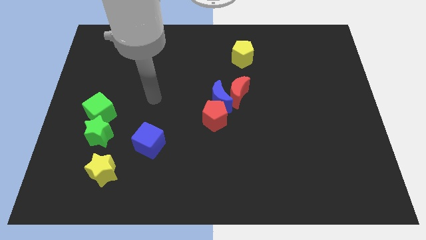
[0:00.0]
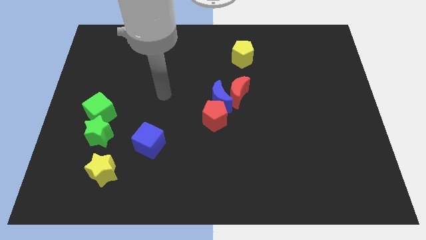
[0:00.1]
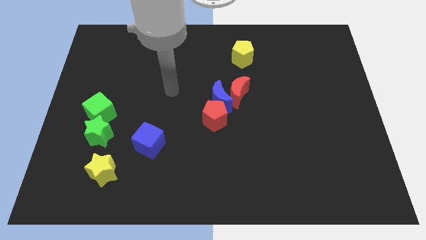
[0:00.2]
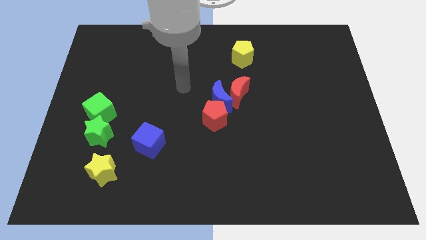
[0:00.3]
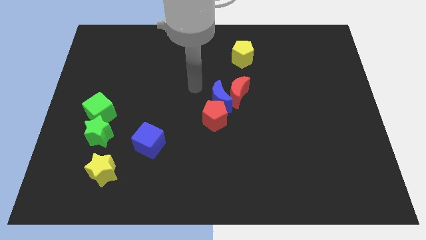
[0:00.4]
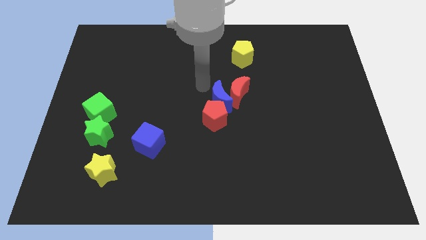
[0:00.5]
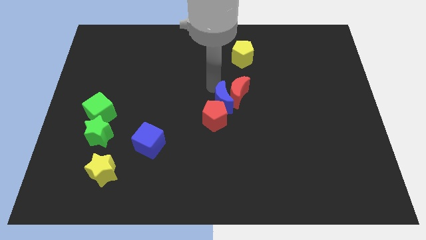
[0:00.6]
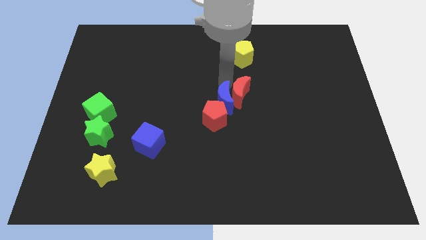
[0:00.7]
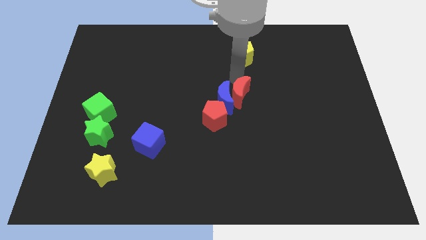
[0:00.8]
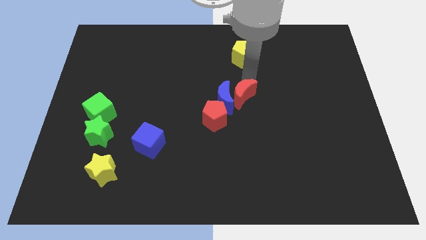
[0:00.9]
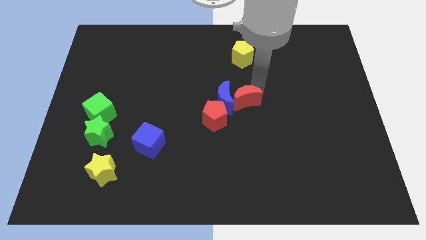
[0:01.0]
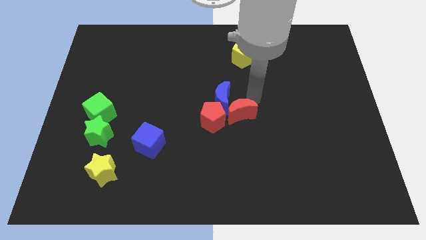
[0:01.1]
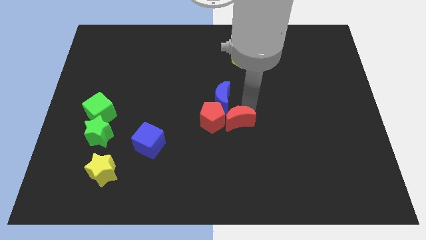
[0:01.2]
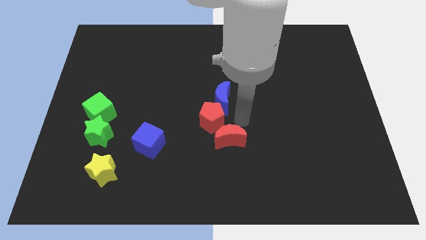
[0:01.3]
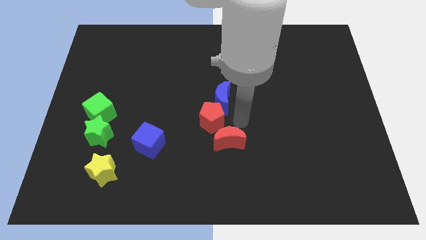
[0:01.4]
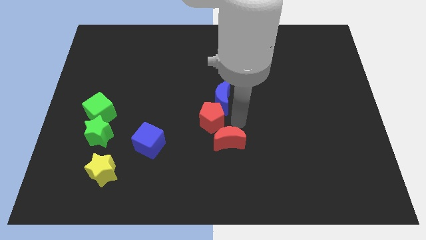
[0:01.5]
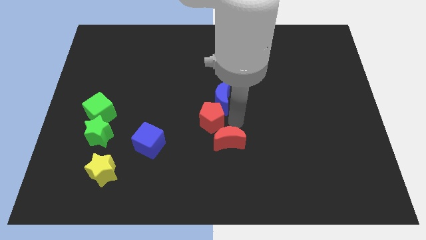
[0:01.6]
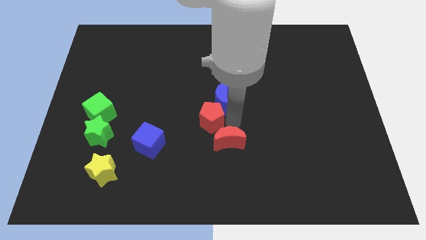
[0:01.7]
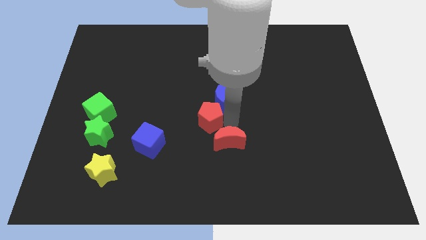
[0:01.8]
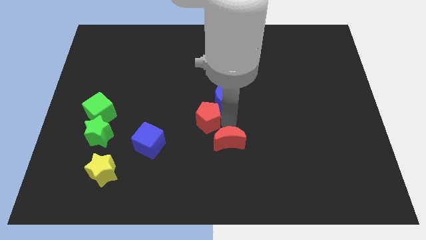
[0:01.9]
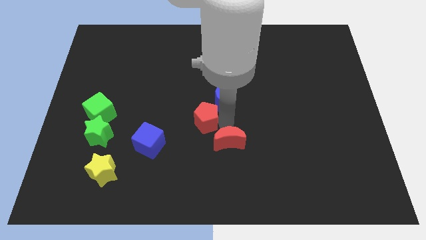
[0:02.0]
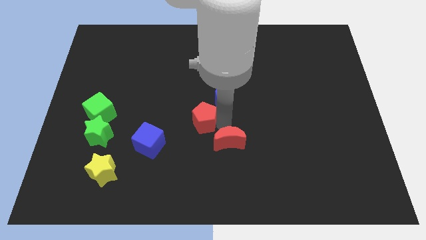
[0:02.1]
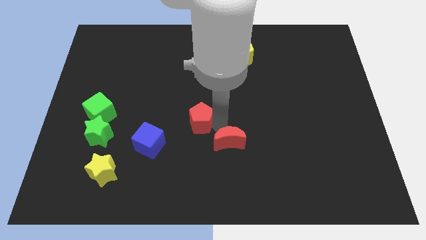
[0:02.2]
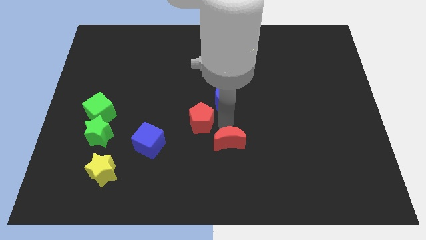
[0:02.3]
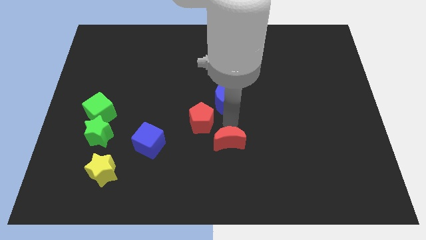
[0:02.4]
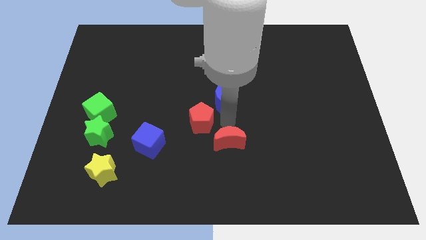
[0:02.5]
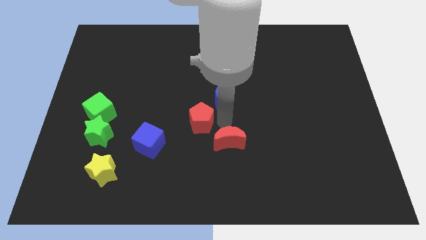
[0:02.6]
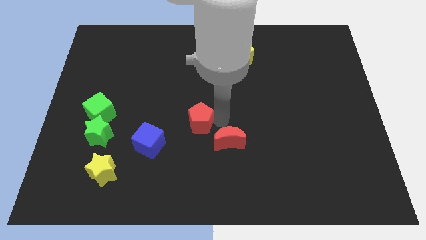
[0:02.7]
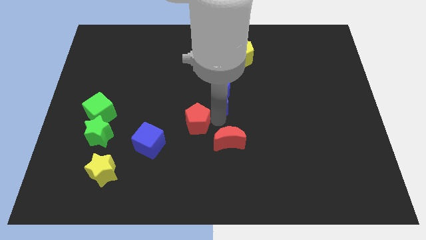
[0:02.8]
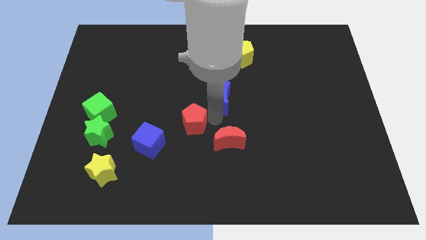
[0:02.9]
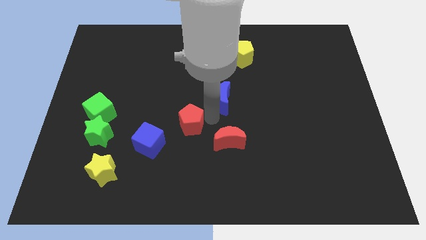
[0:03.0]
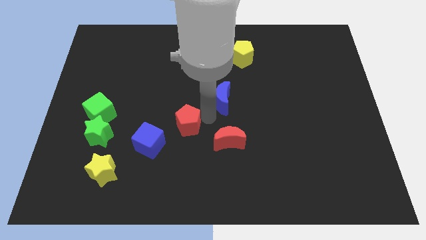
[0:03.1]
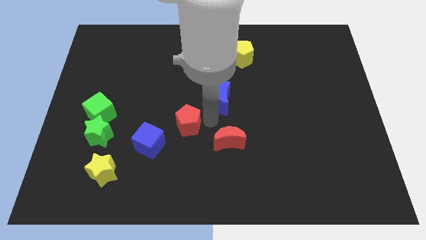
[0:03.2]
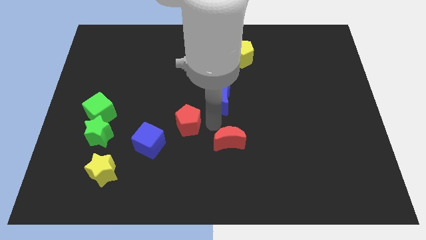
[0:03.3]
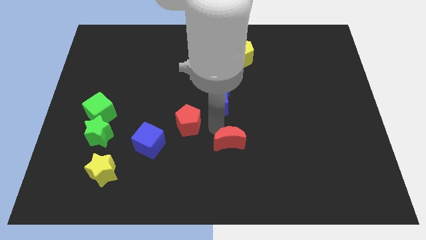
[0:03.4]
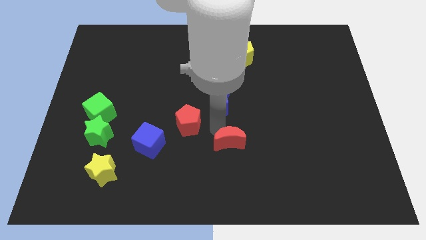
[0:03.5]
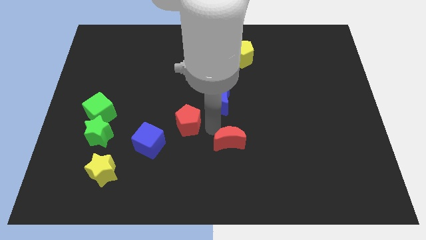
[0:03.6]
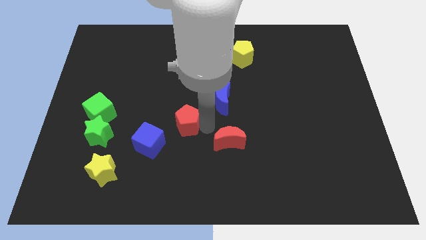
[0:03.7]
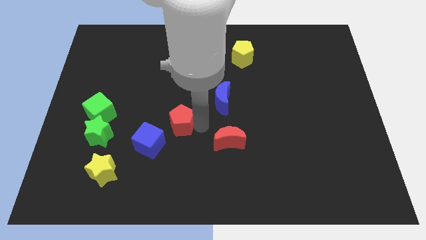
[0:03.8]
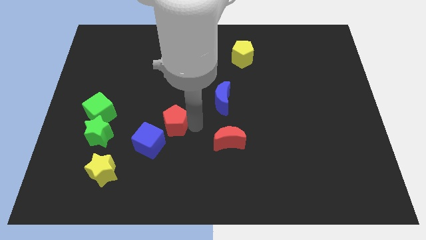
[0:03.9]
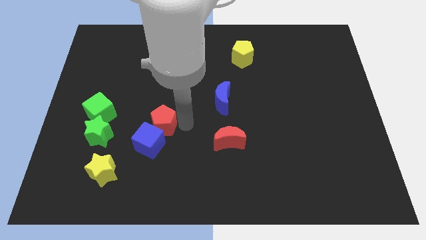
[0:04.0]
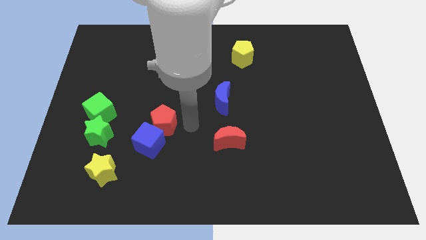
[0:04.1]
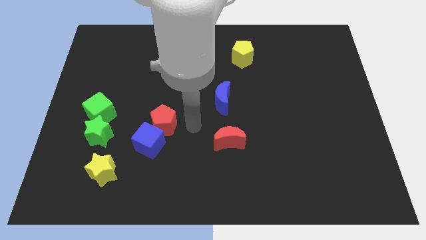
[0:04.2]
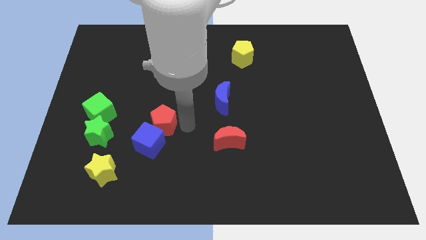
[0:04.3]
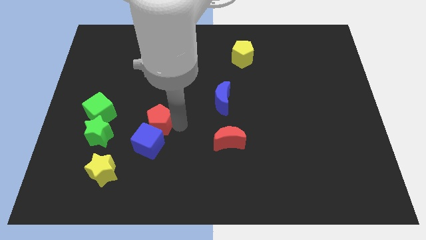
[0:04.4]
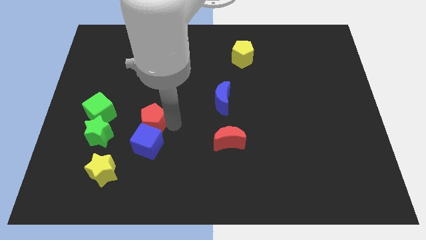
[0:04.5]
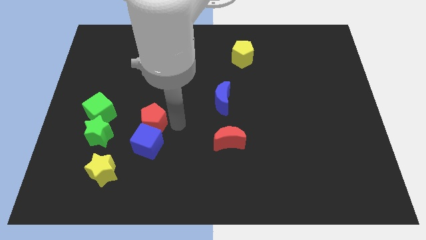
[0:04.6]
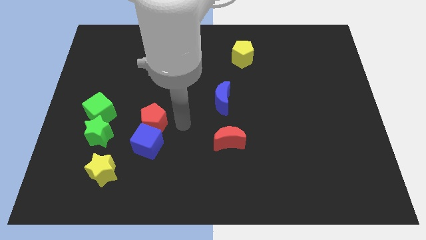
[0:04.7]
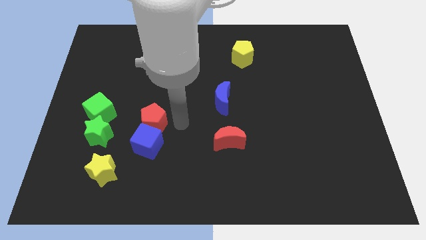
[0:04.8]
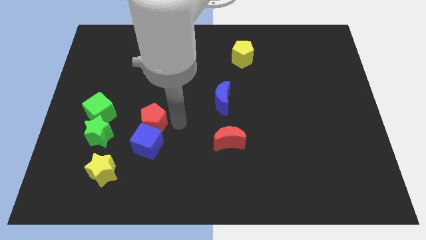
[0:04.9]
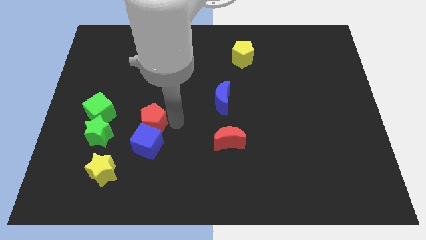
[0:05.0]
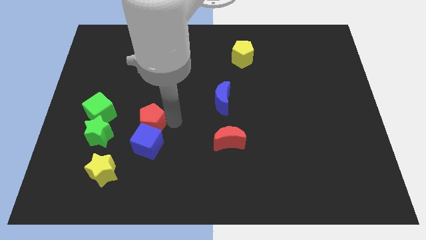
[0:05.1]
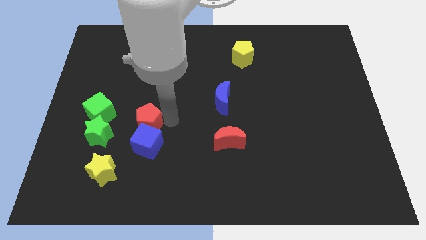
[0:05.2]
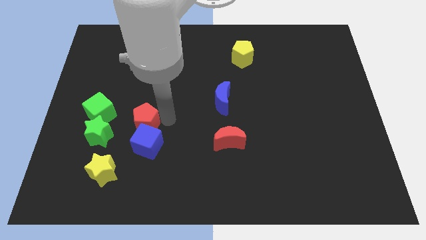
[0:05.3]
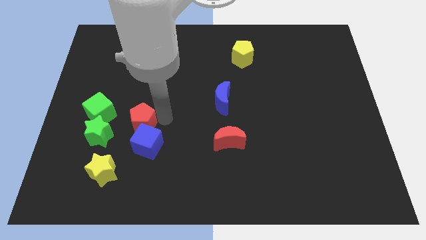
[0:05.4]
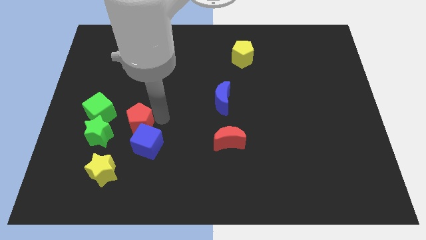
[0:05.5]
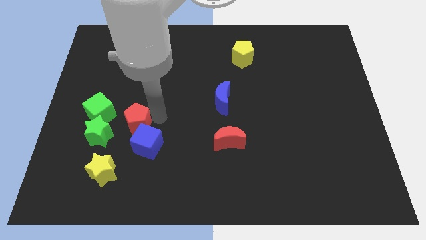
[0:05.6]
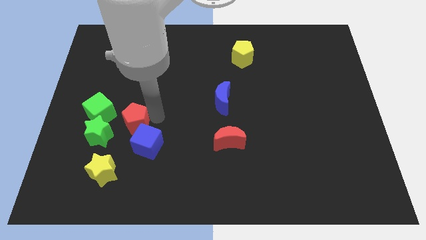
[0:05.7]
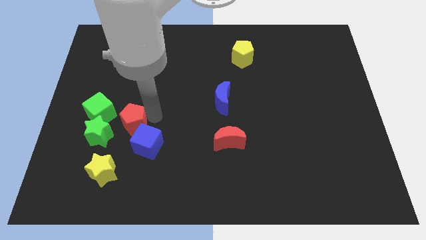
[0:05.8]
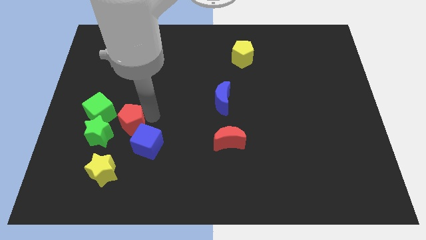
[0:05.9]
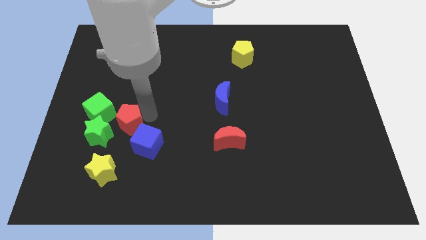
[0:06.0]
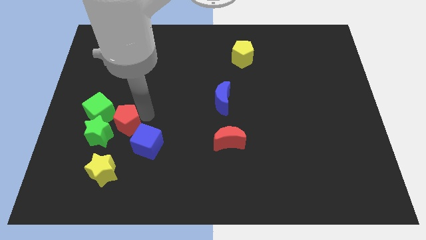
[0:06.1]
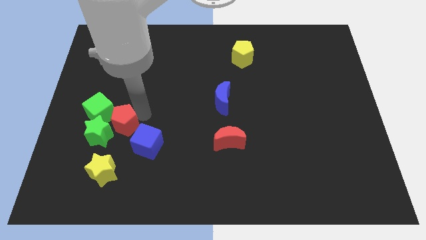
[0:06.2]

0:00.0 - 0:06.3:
put the red pentagon towards the green star

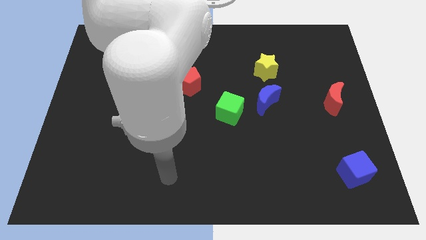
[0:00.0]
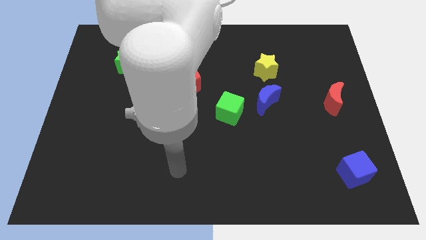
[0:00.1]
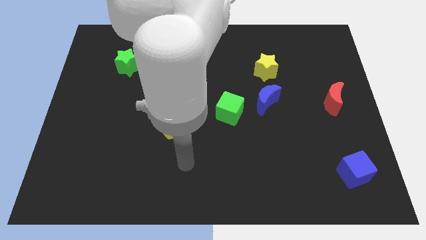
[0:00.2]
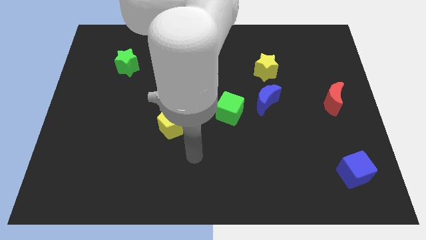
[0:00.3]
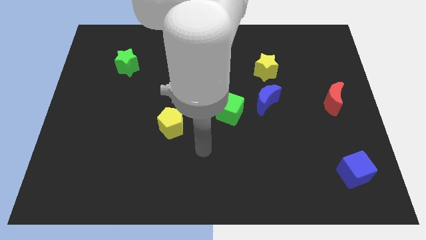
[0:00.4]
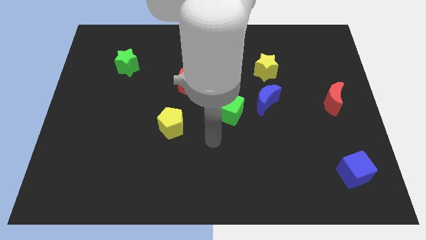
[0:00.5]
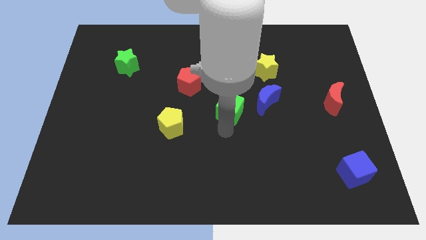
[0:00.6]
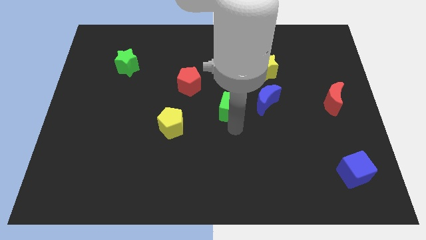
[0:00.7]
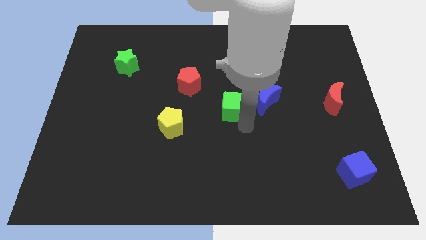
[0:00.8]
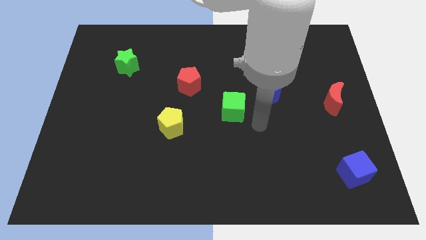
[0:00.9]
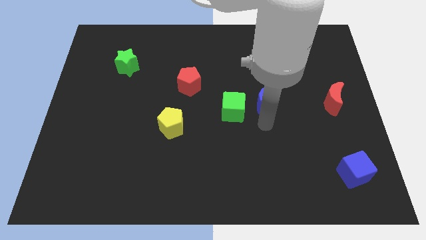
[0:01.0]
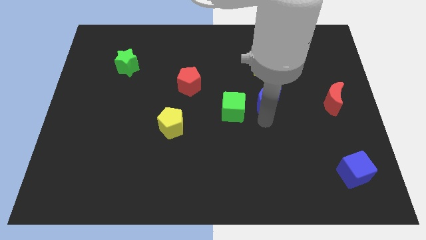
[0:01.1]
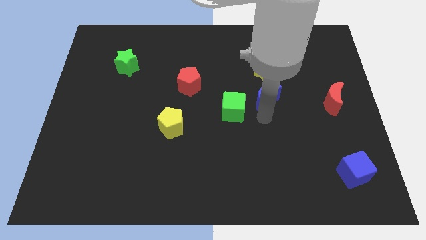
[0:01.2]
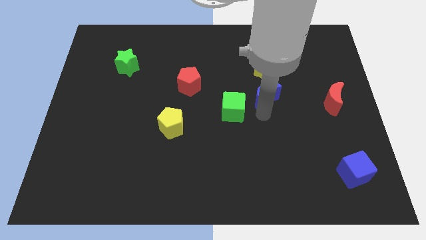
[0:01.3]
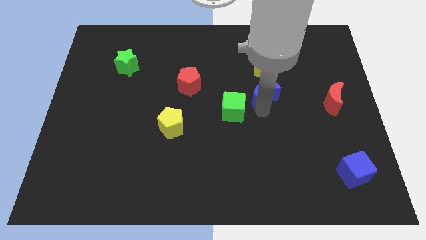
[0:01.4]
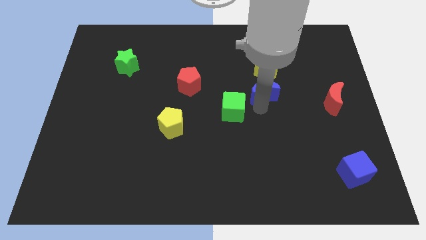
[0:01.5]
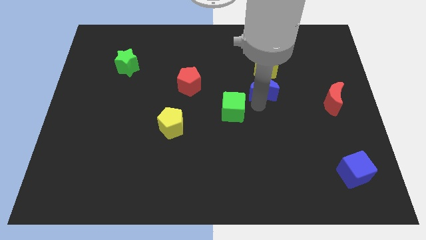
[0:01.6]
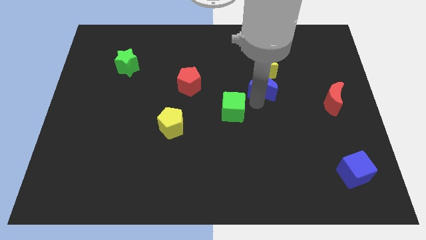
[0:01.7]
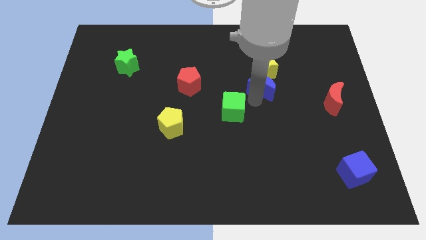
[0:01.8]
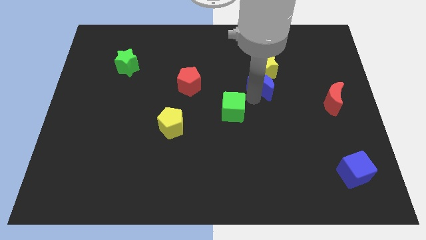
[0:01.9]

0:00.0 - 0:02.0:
put the blue moon towards the yellow star
